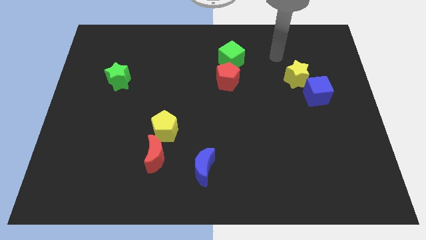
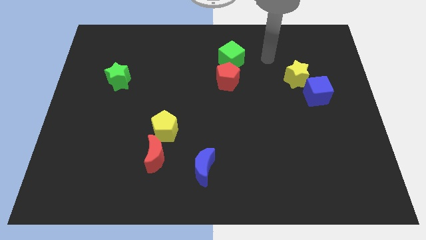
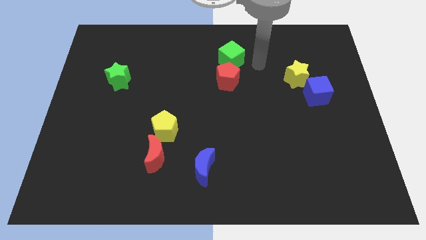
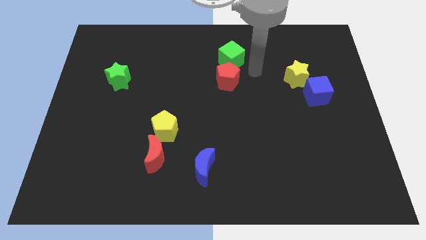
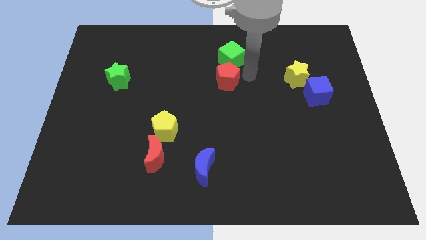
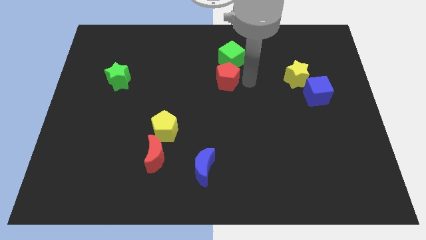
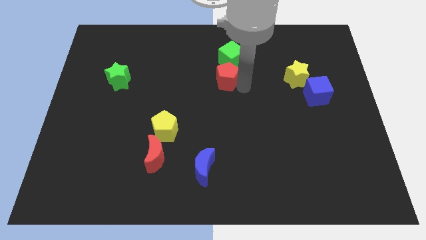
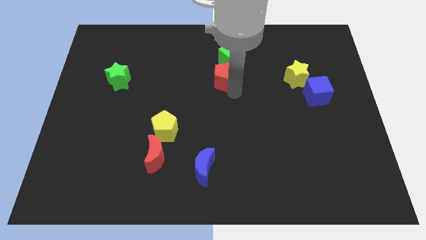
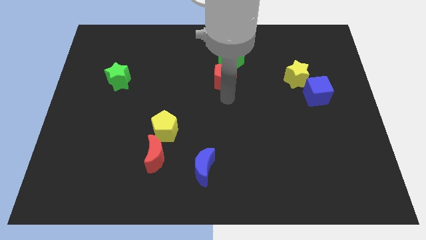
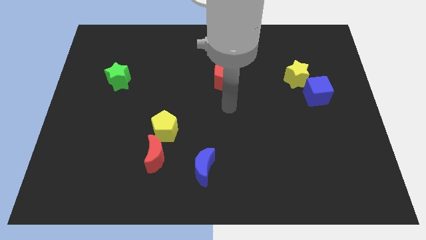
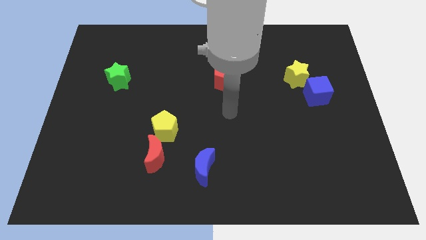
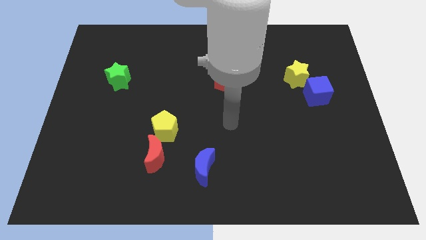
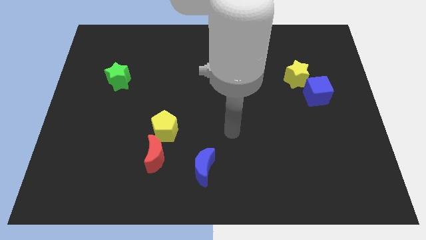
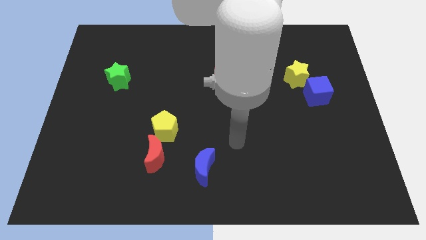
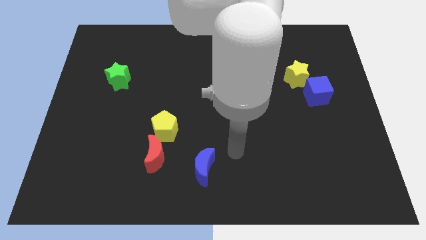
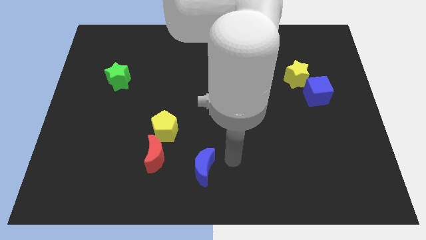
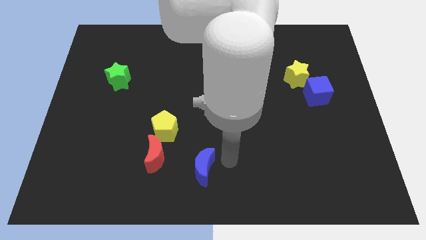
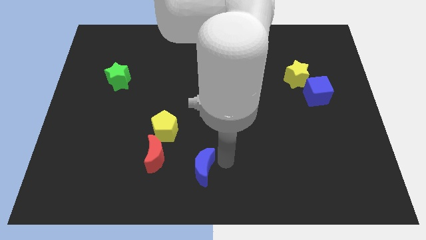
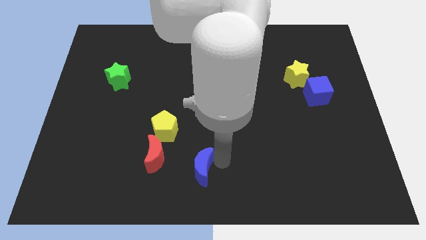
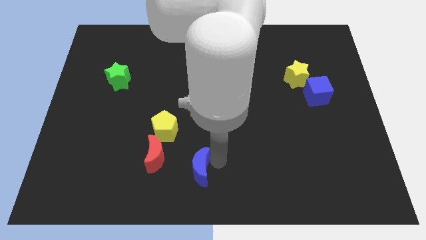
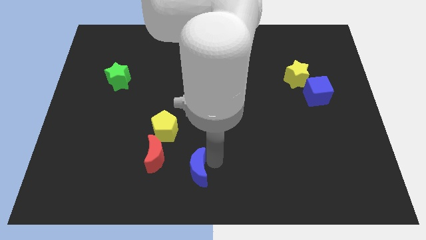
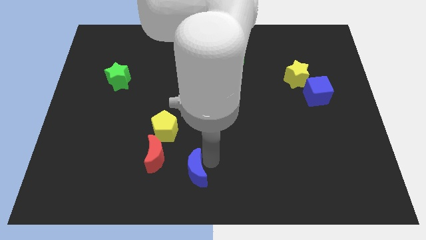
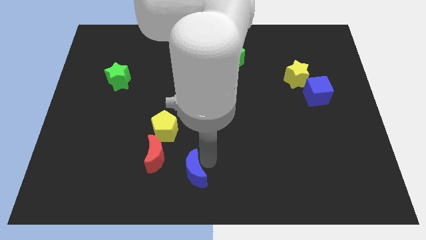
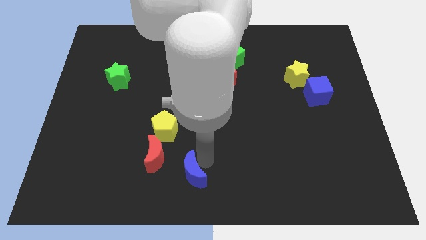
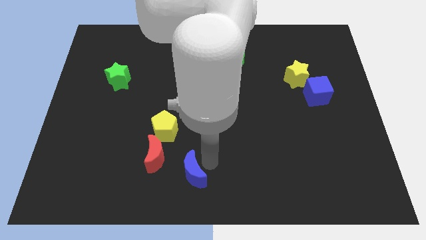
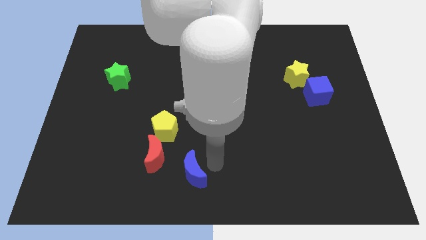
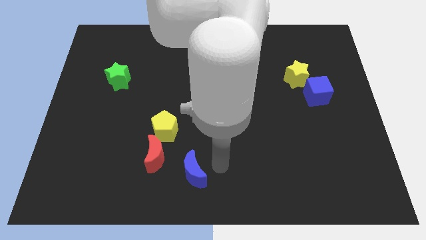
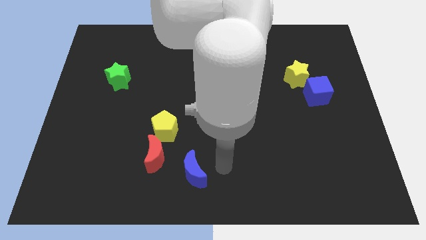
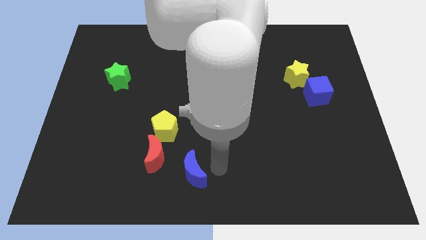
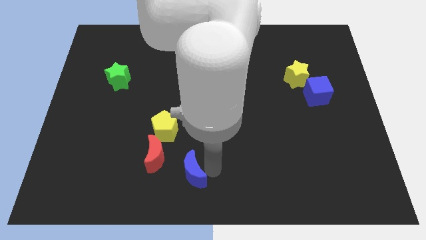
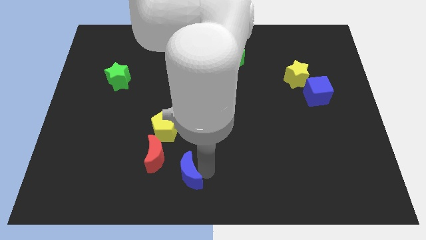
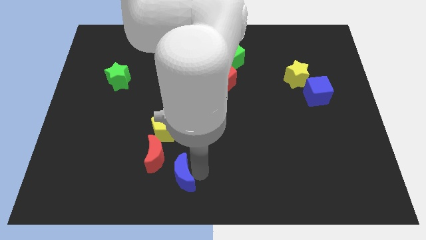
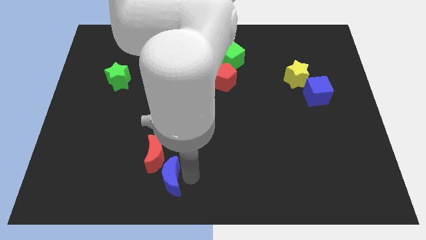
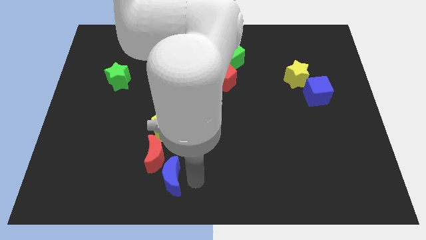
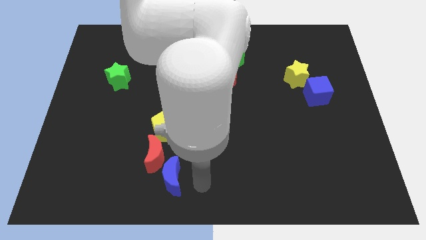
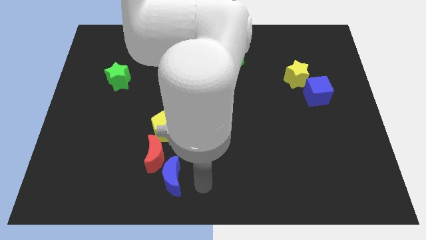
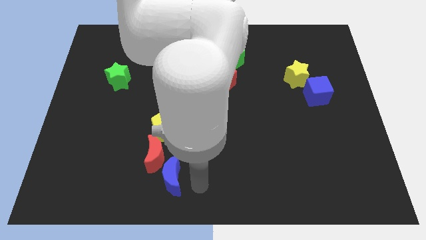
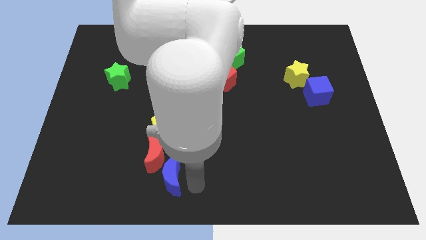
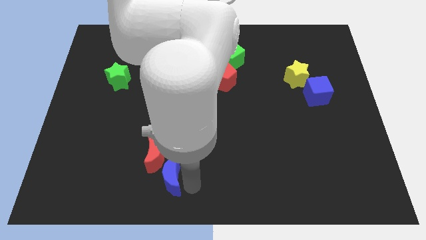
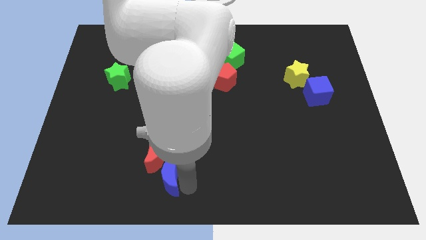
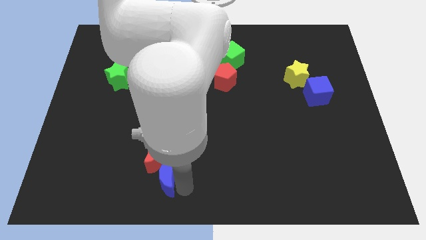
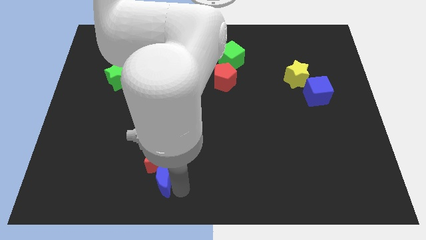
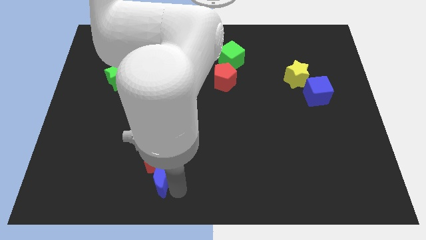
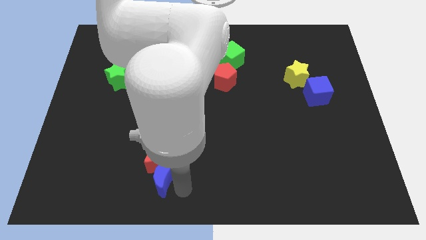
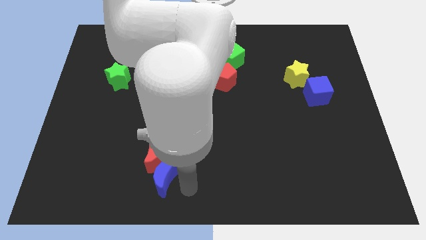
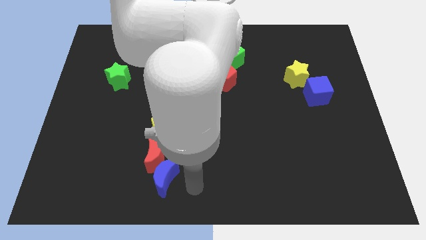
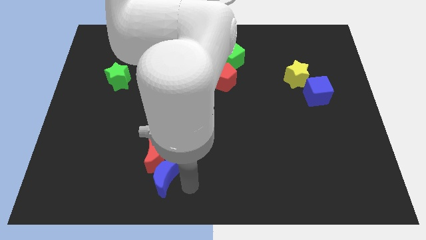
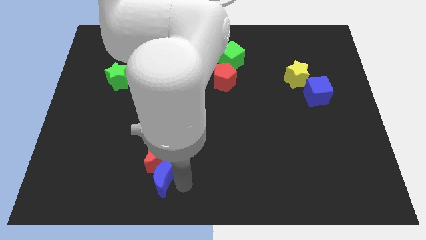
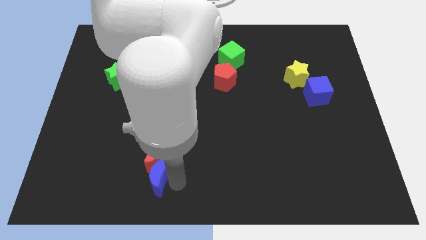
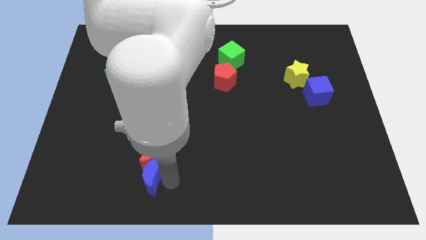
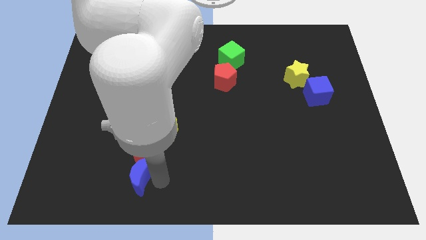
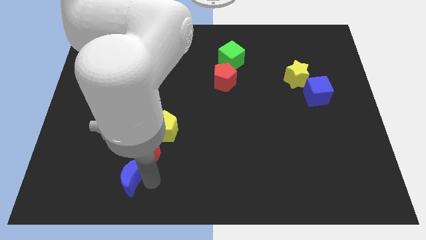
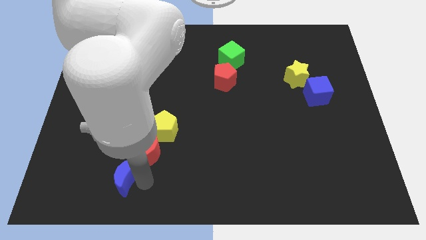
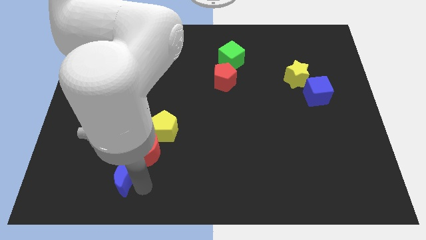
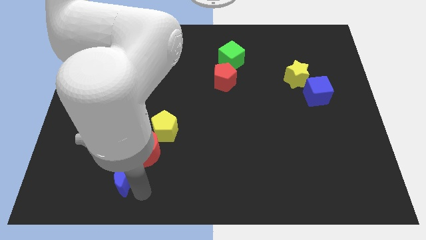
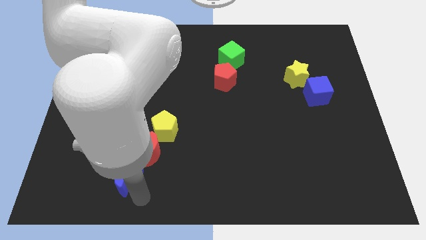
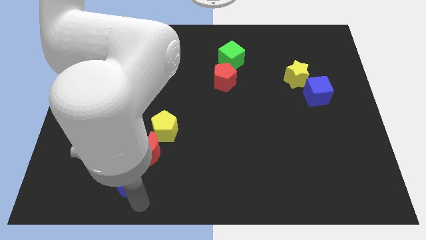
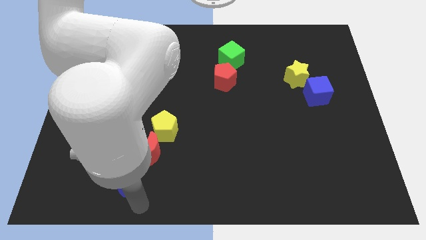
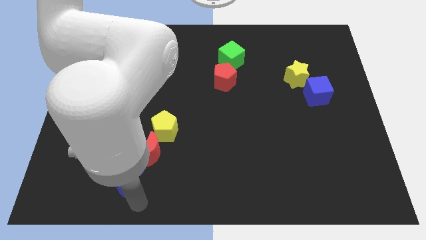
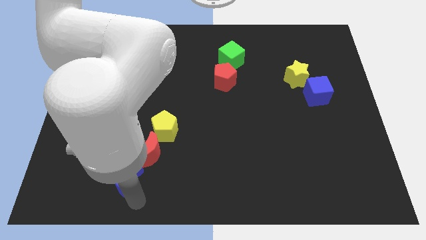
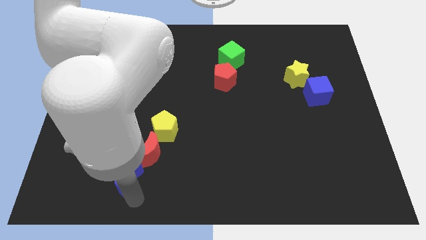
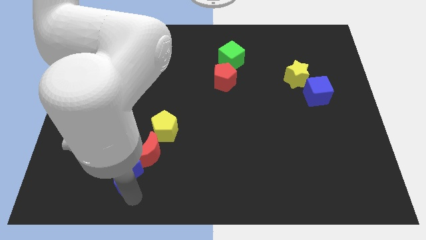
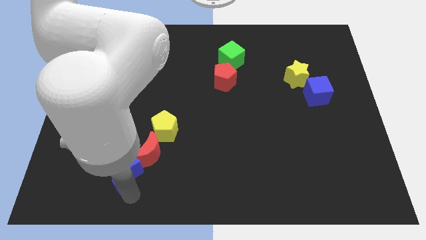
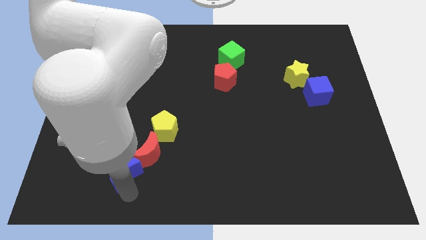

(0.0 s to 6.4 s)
slide the blue moon left of the red moon
